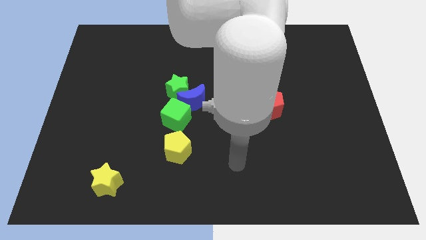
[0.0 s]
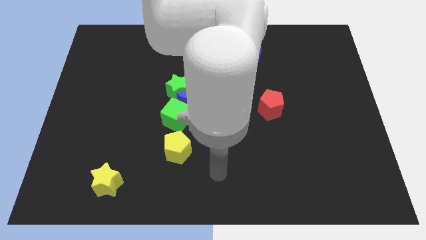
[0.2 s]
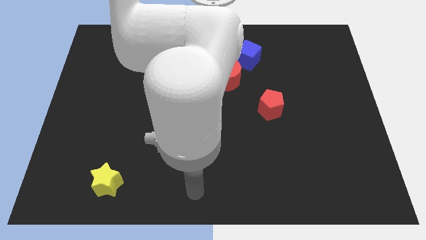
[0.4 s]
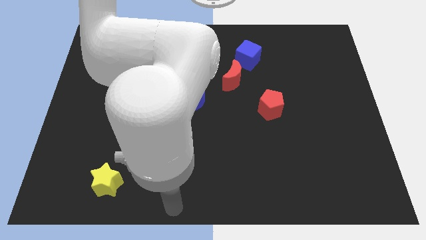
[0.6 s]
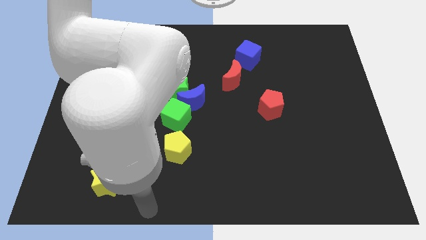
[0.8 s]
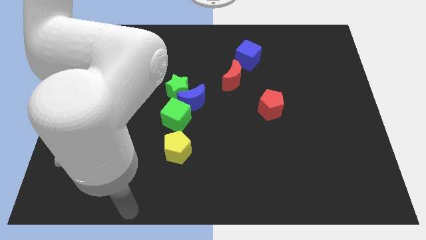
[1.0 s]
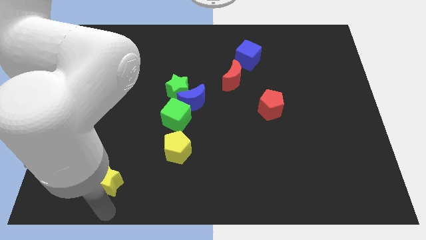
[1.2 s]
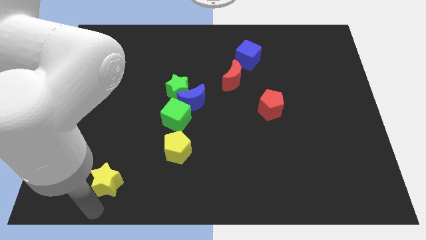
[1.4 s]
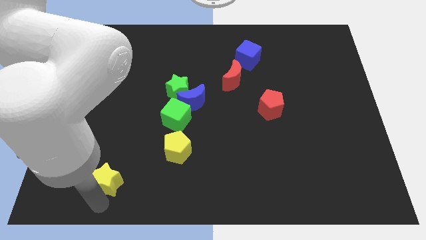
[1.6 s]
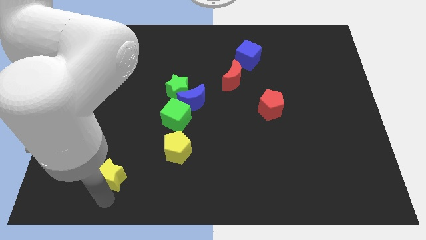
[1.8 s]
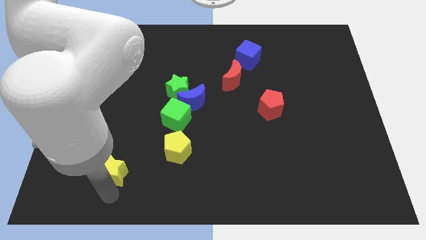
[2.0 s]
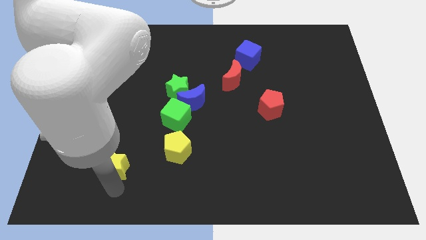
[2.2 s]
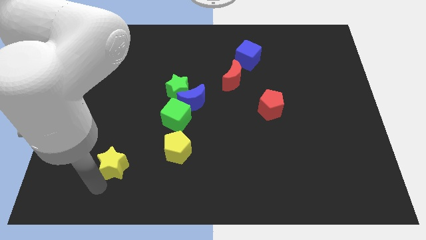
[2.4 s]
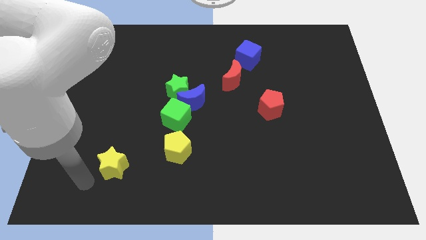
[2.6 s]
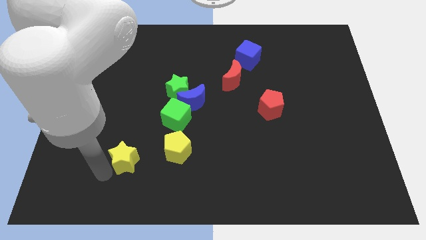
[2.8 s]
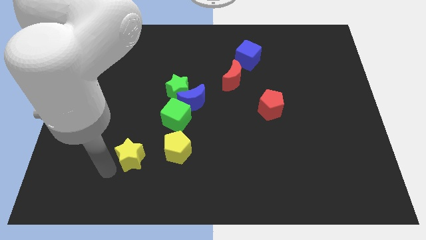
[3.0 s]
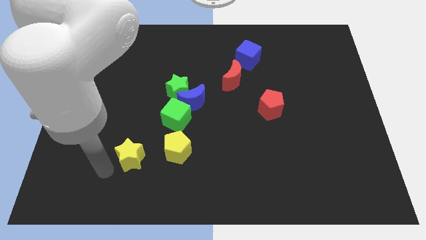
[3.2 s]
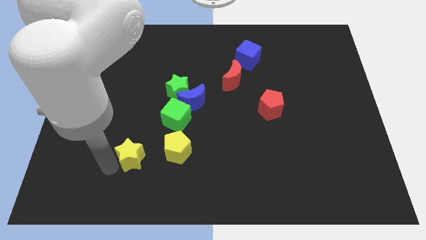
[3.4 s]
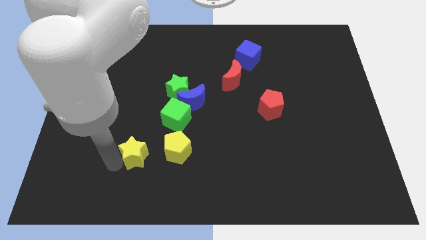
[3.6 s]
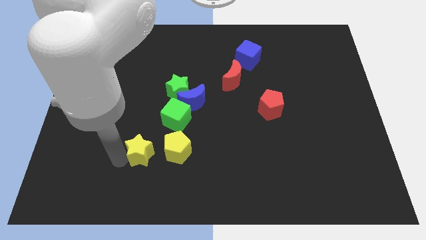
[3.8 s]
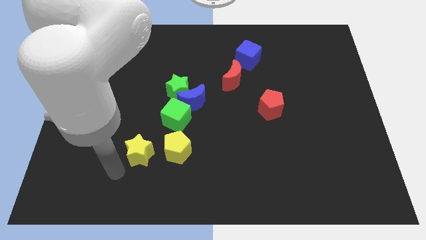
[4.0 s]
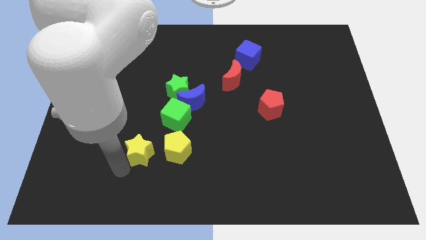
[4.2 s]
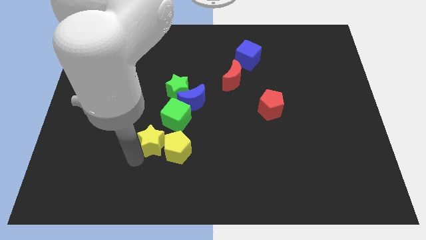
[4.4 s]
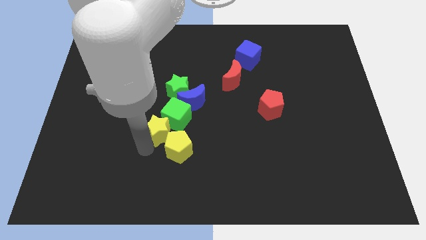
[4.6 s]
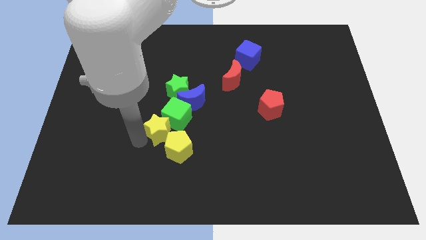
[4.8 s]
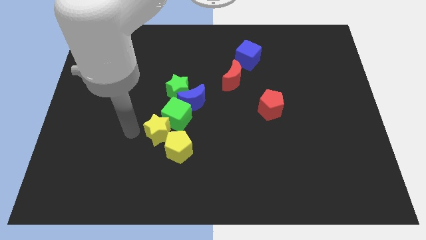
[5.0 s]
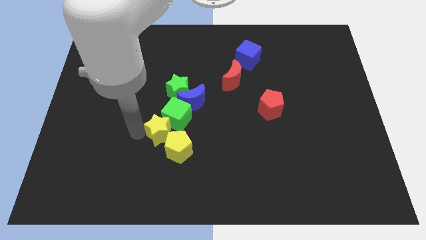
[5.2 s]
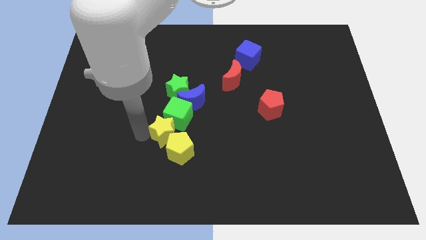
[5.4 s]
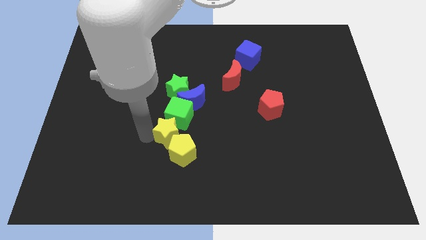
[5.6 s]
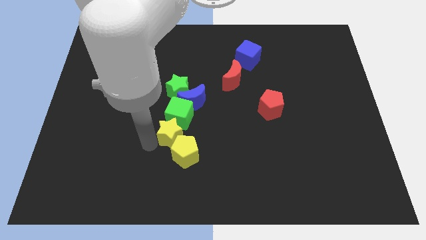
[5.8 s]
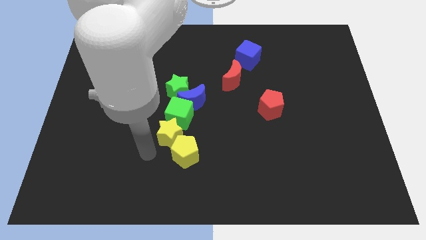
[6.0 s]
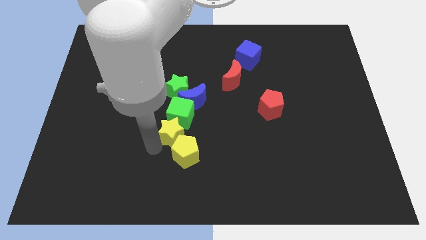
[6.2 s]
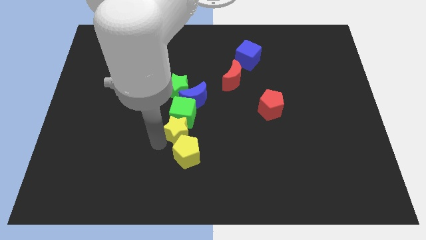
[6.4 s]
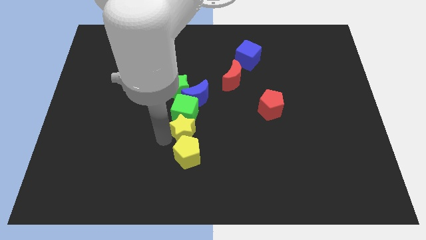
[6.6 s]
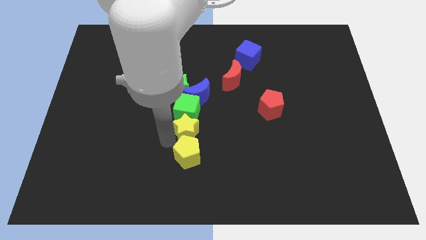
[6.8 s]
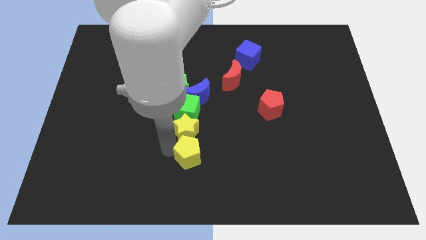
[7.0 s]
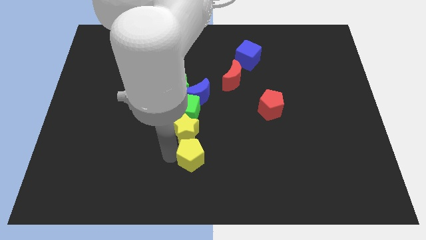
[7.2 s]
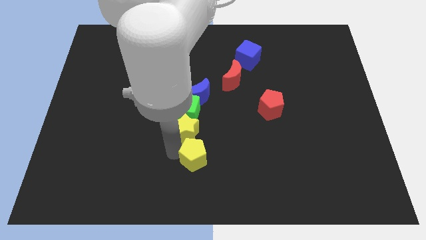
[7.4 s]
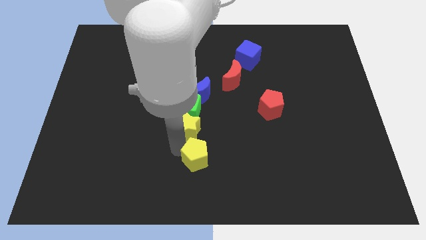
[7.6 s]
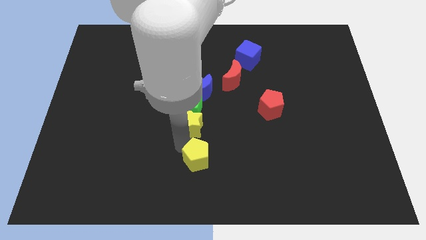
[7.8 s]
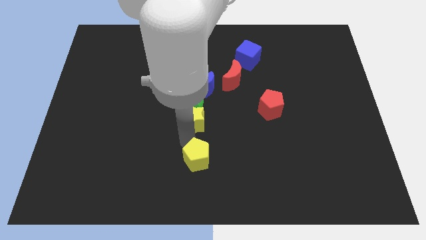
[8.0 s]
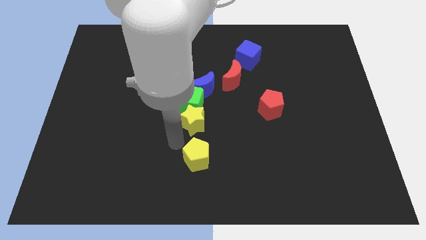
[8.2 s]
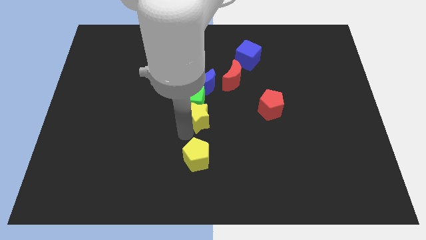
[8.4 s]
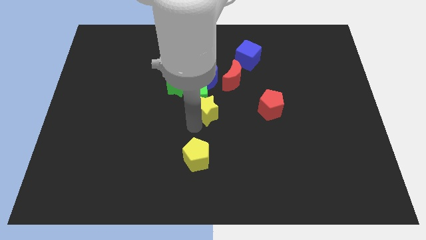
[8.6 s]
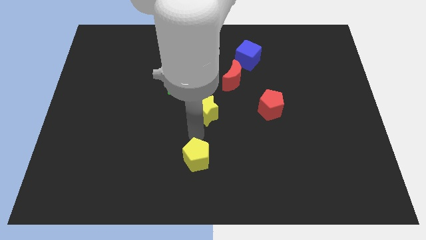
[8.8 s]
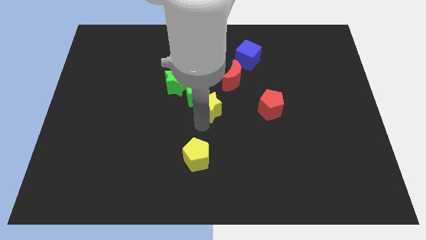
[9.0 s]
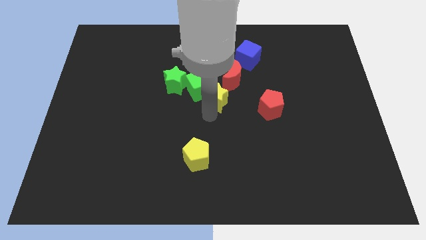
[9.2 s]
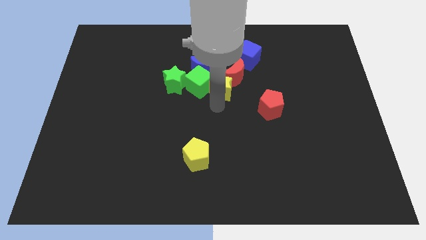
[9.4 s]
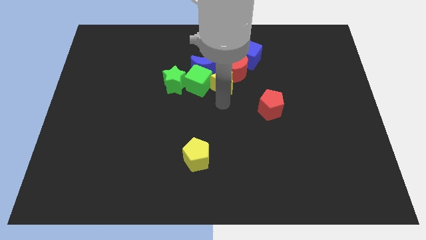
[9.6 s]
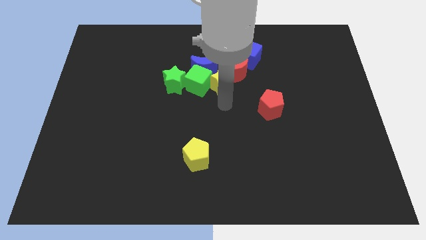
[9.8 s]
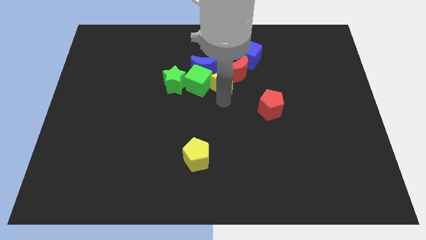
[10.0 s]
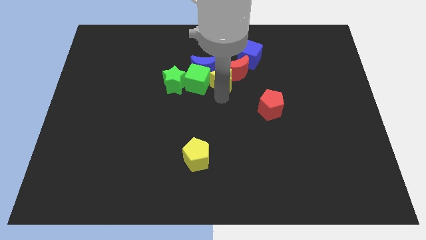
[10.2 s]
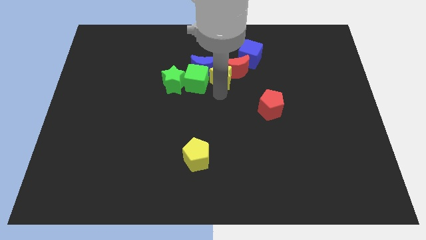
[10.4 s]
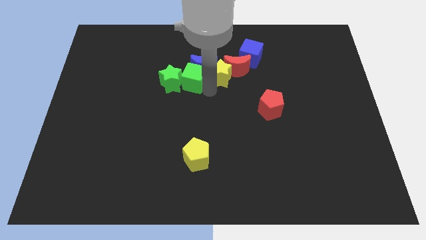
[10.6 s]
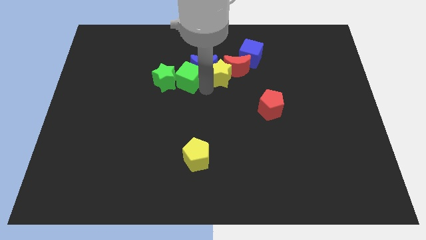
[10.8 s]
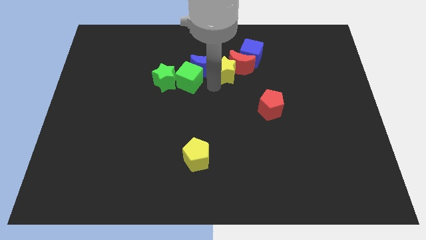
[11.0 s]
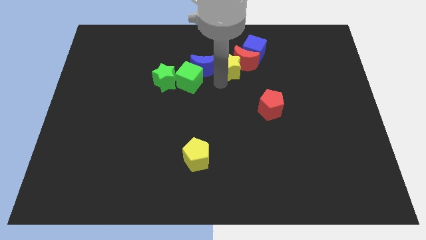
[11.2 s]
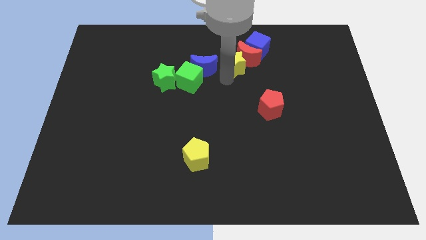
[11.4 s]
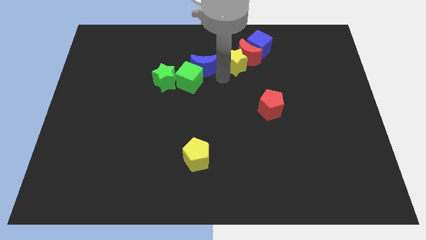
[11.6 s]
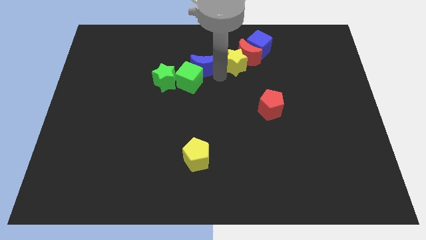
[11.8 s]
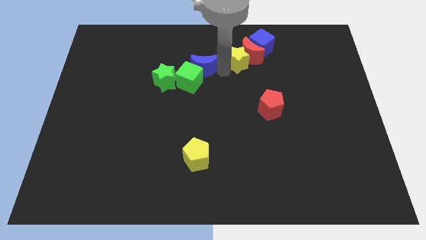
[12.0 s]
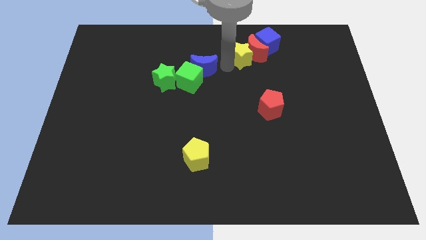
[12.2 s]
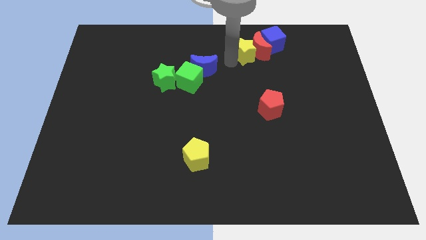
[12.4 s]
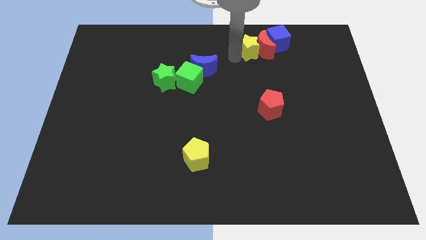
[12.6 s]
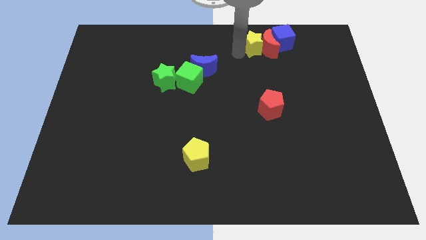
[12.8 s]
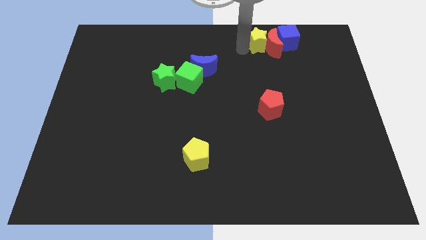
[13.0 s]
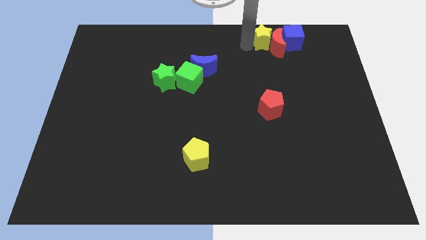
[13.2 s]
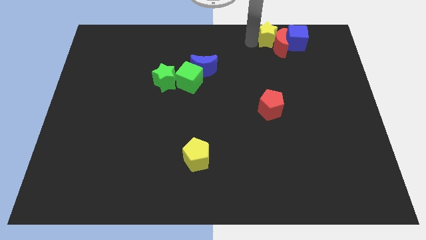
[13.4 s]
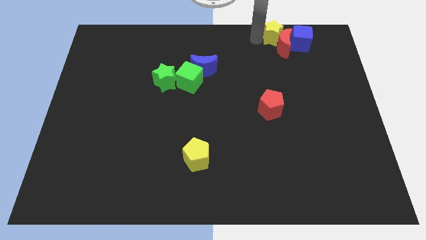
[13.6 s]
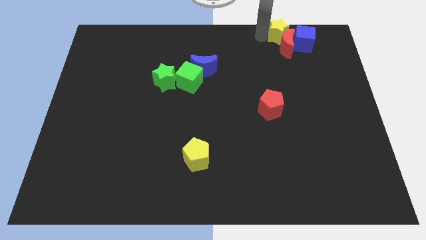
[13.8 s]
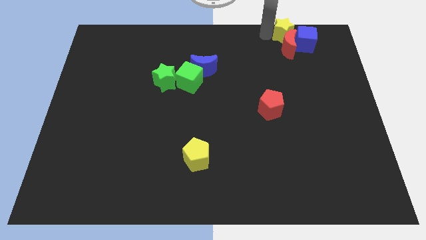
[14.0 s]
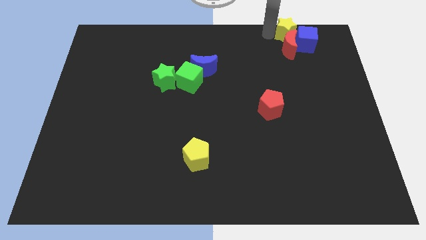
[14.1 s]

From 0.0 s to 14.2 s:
put the yellow star to the blue cube
